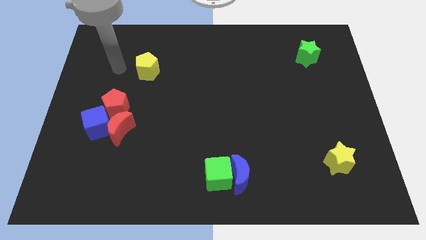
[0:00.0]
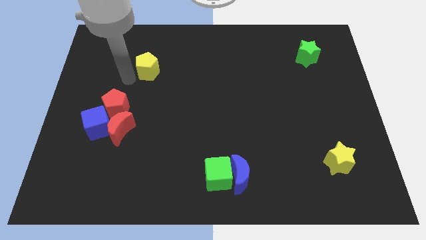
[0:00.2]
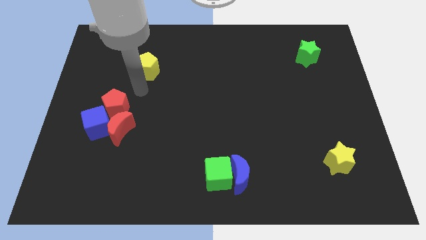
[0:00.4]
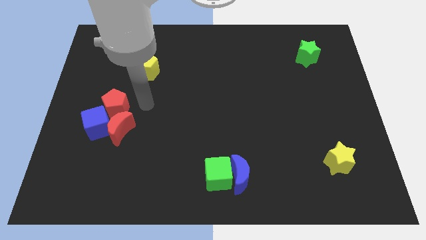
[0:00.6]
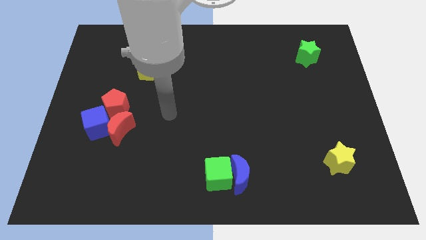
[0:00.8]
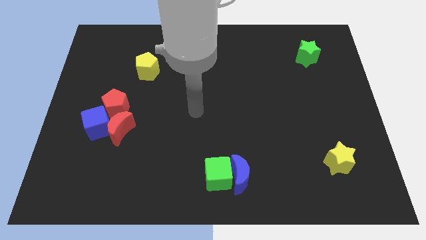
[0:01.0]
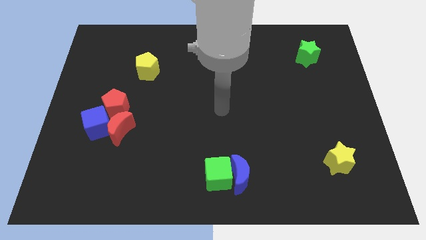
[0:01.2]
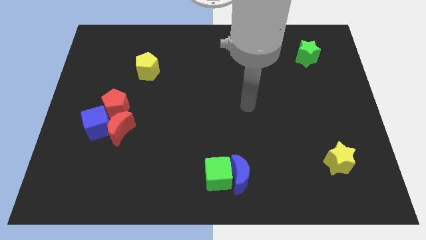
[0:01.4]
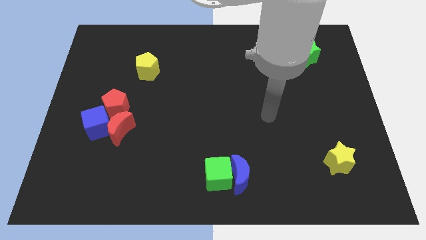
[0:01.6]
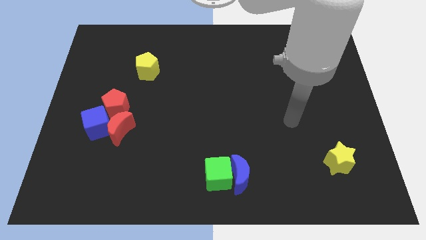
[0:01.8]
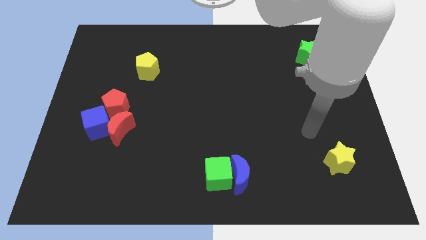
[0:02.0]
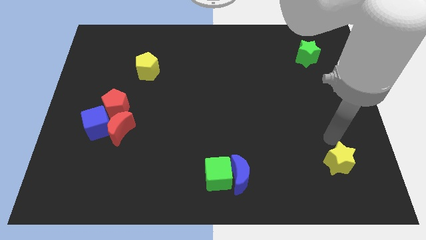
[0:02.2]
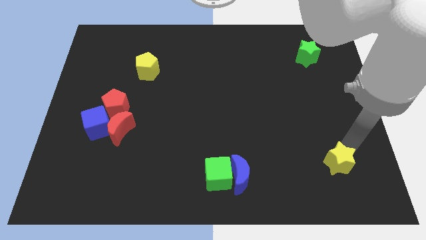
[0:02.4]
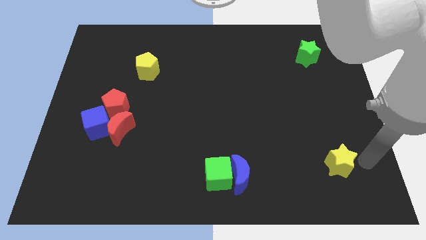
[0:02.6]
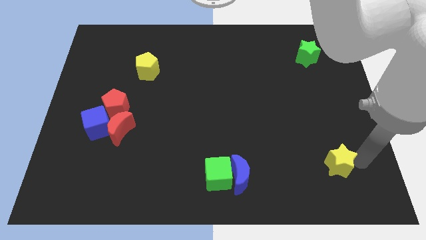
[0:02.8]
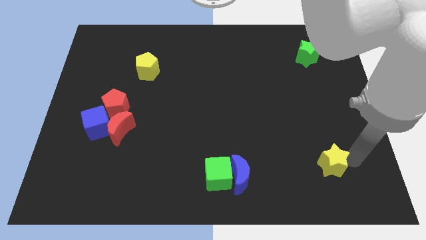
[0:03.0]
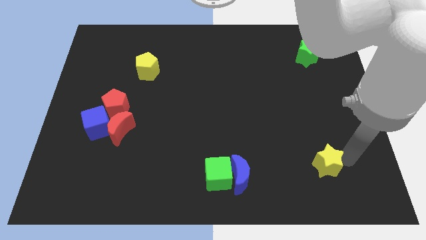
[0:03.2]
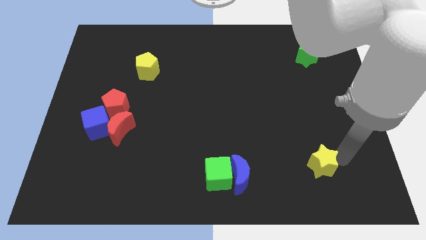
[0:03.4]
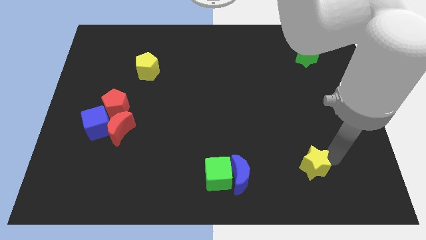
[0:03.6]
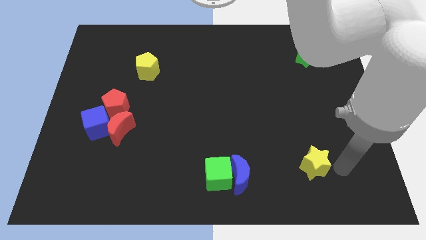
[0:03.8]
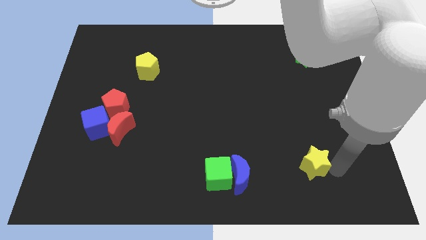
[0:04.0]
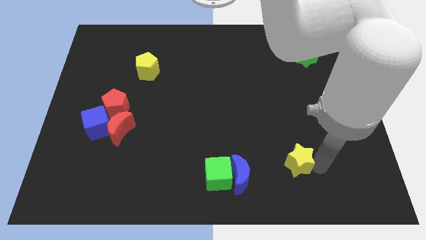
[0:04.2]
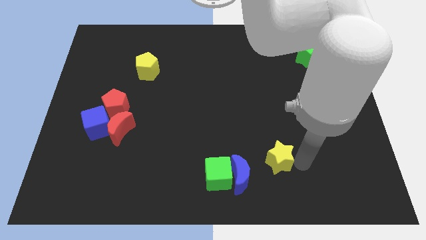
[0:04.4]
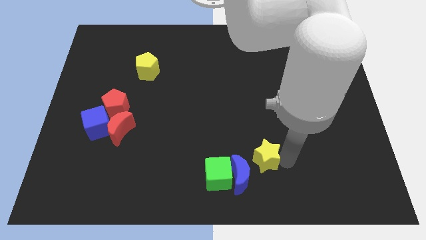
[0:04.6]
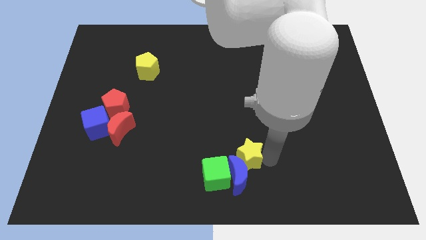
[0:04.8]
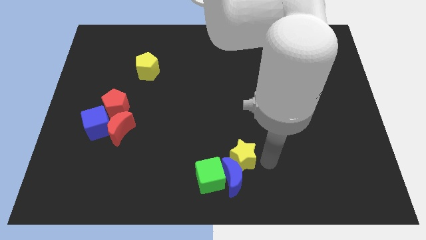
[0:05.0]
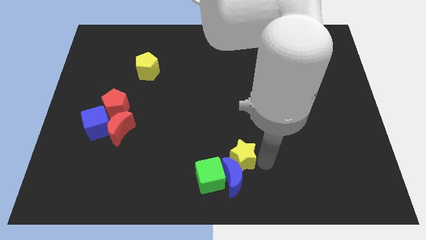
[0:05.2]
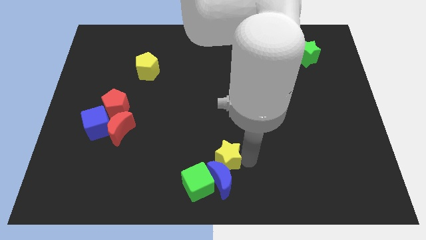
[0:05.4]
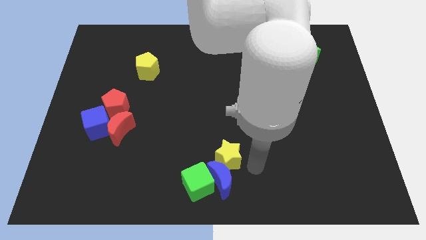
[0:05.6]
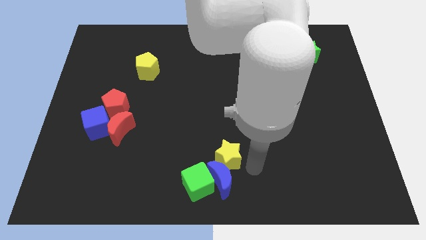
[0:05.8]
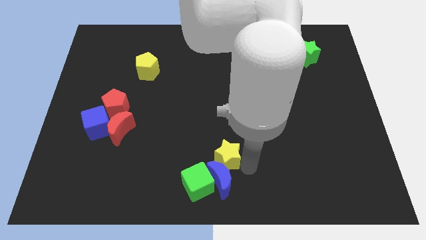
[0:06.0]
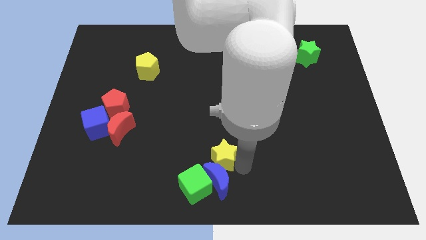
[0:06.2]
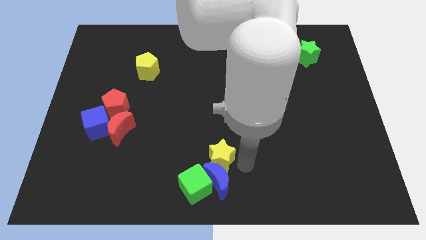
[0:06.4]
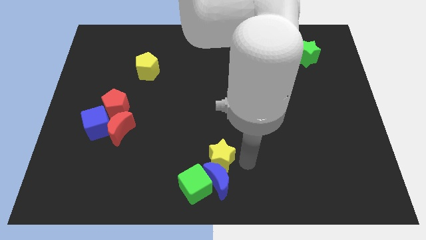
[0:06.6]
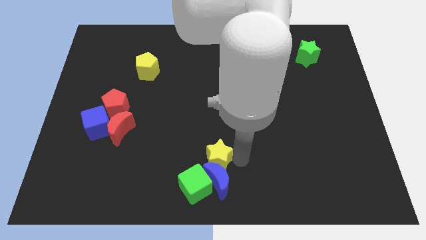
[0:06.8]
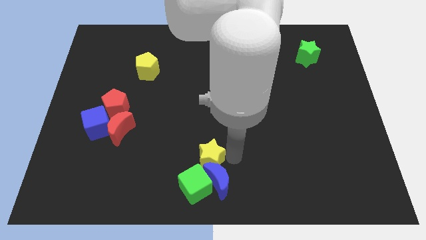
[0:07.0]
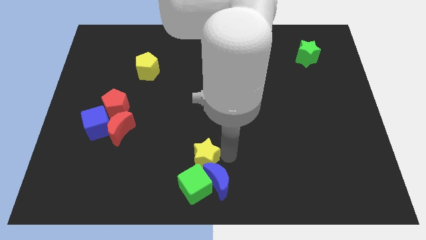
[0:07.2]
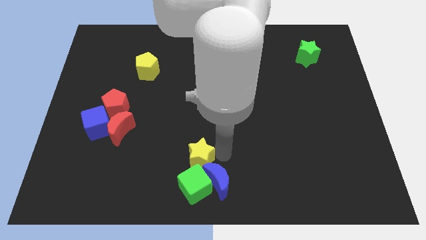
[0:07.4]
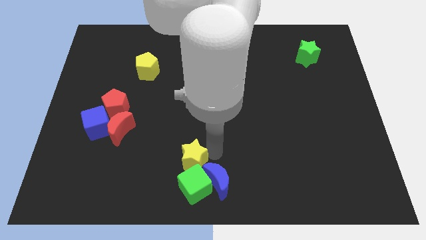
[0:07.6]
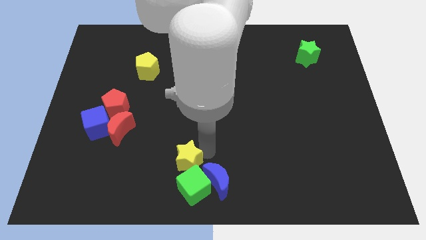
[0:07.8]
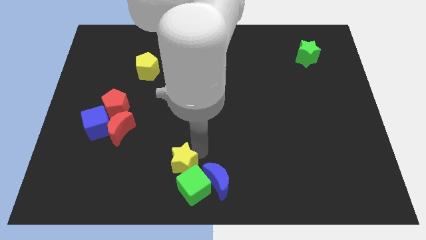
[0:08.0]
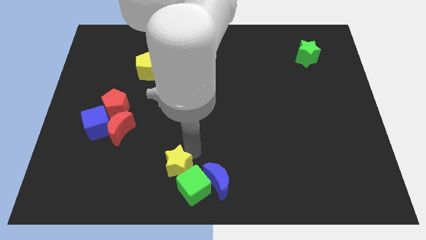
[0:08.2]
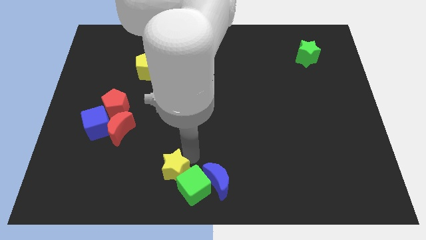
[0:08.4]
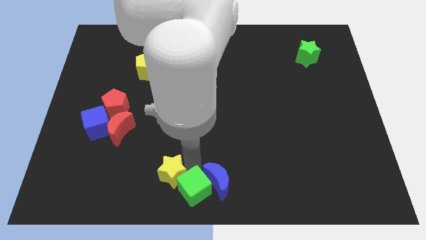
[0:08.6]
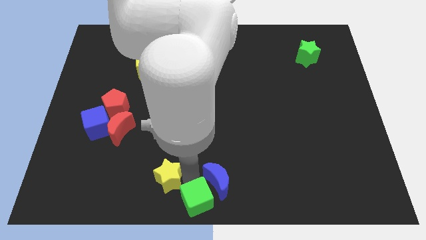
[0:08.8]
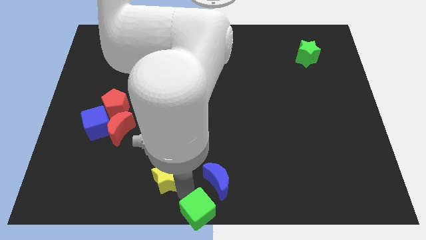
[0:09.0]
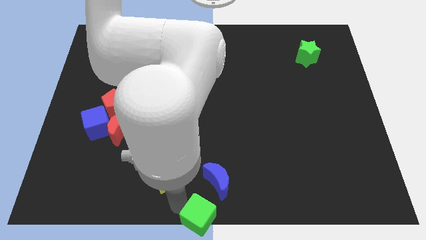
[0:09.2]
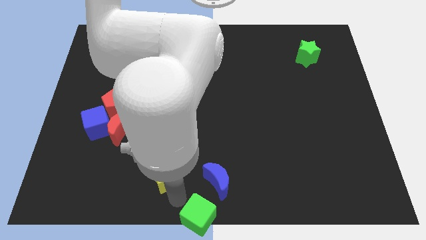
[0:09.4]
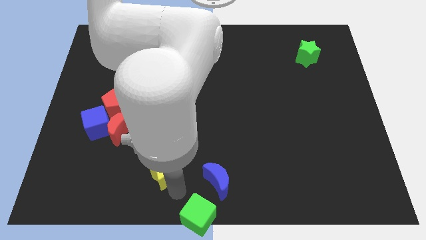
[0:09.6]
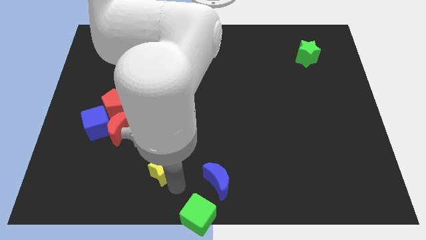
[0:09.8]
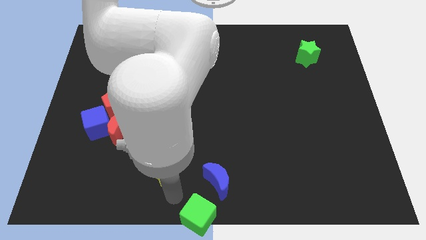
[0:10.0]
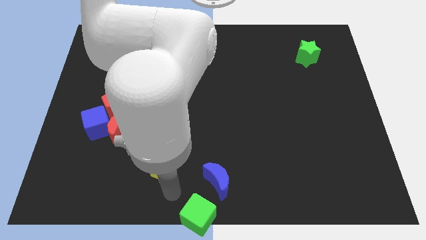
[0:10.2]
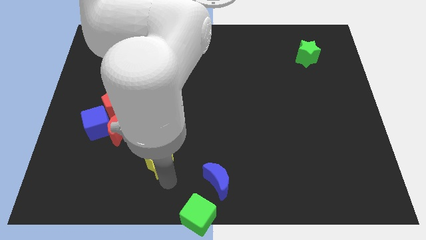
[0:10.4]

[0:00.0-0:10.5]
slide the yellow star to the bottom right of the red moon

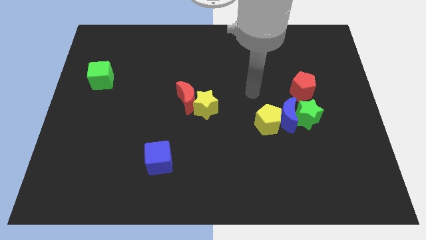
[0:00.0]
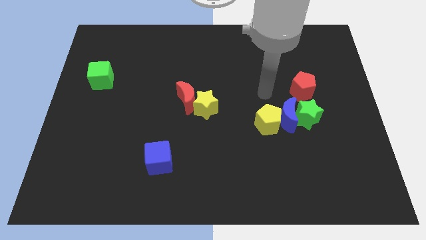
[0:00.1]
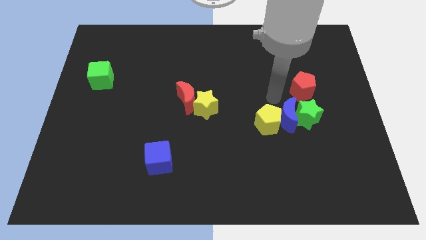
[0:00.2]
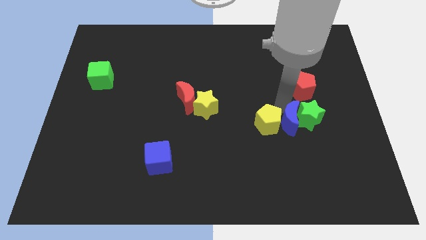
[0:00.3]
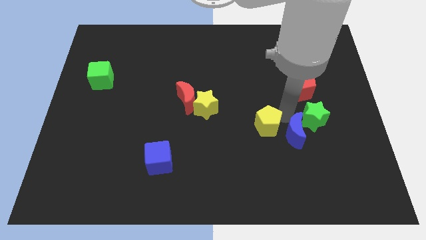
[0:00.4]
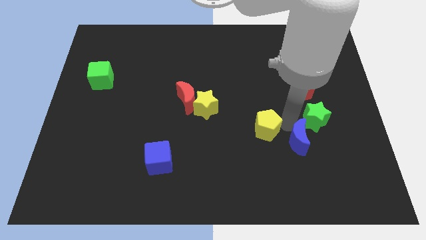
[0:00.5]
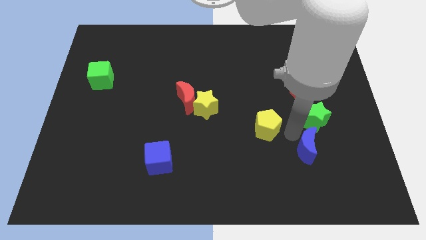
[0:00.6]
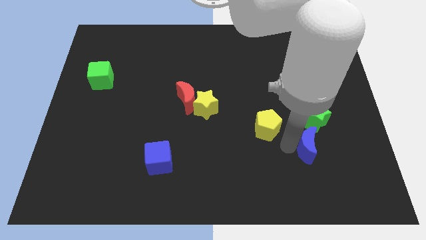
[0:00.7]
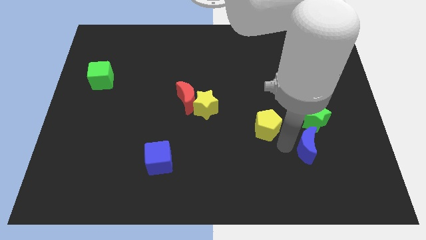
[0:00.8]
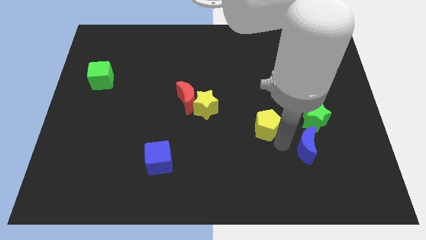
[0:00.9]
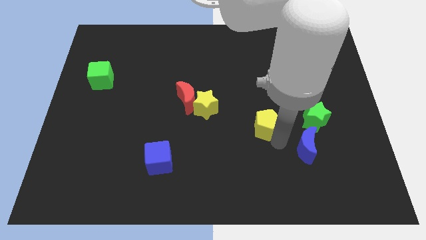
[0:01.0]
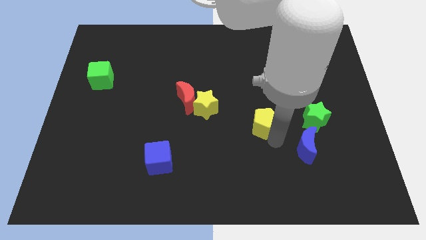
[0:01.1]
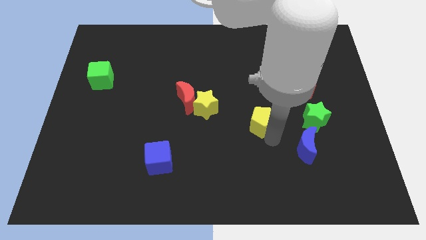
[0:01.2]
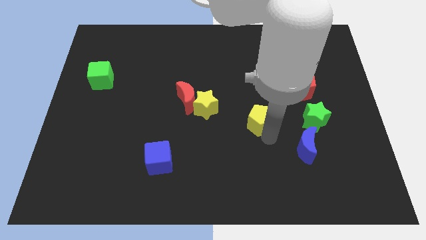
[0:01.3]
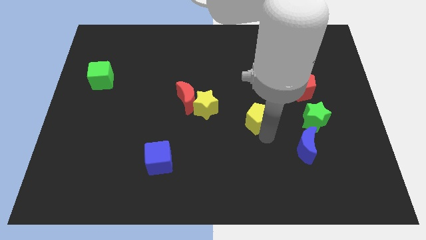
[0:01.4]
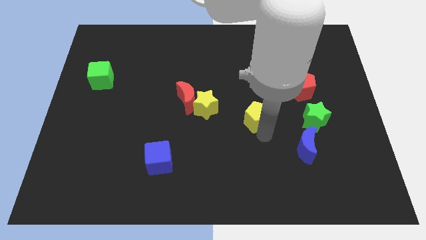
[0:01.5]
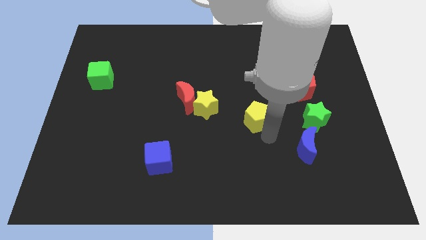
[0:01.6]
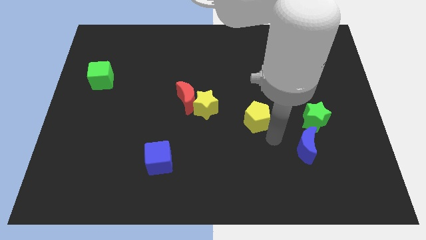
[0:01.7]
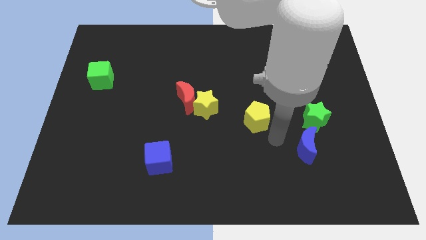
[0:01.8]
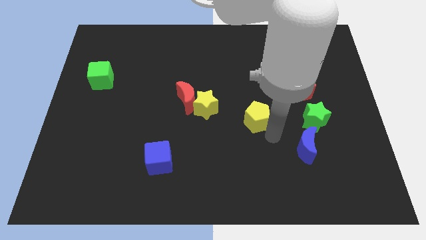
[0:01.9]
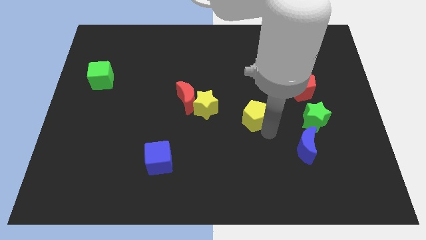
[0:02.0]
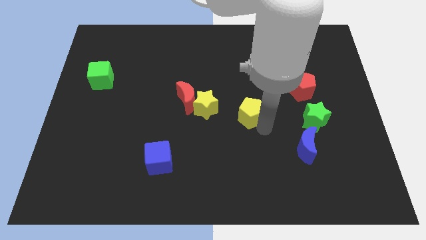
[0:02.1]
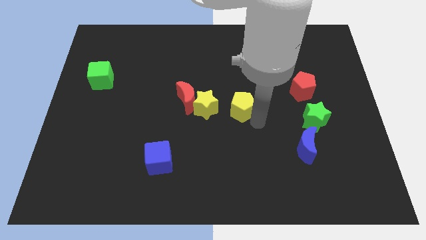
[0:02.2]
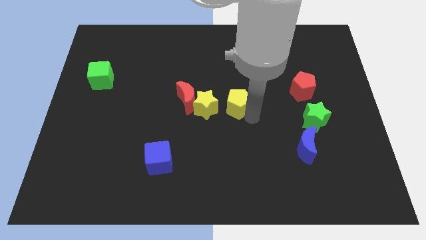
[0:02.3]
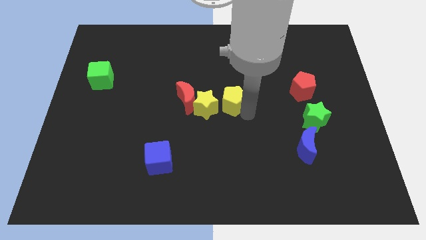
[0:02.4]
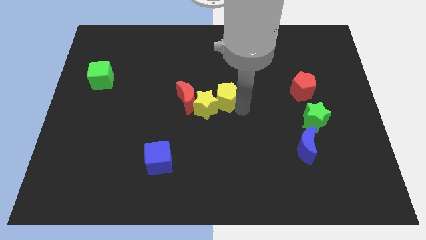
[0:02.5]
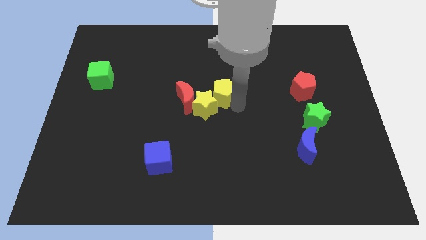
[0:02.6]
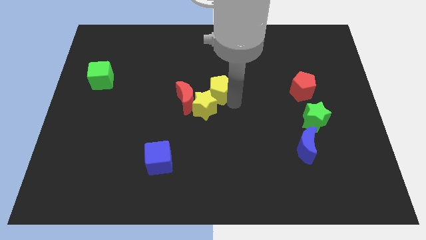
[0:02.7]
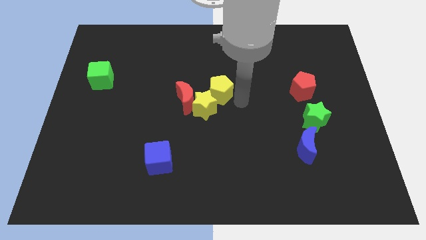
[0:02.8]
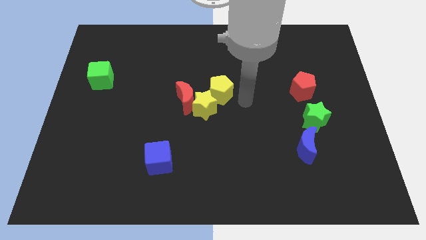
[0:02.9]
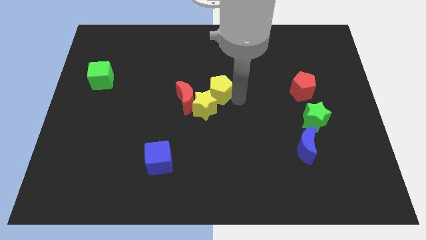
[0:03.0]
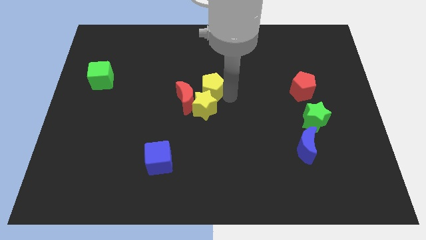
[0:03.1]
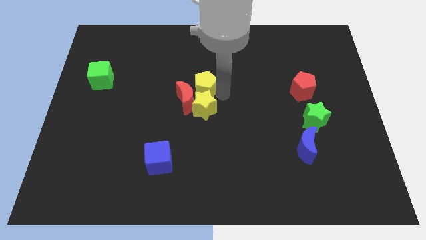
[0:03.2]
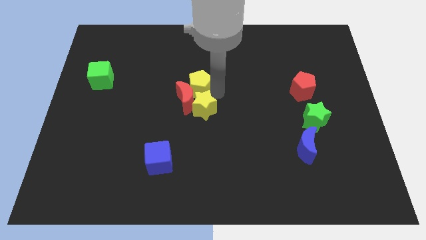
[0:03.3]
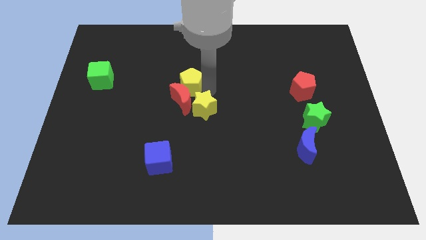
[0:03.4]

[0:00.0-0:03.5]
push the yellow pentagon diagonally up and to the left of the red moon
